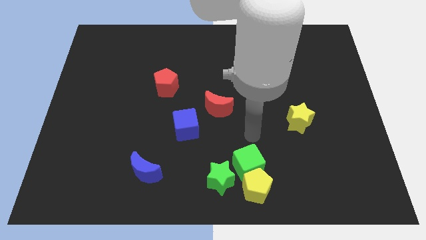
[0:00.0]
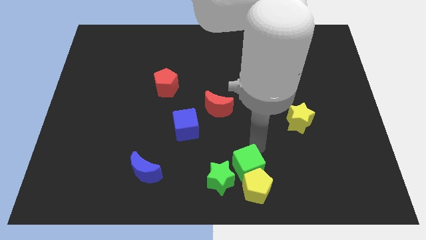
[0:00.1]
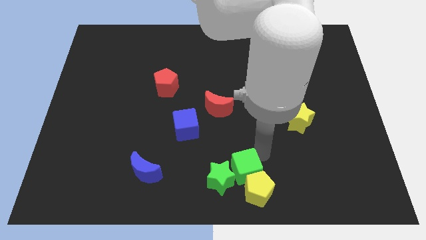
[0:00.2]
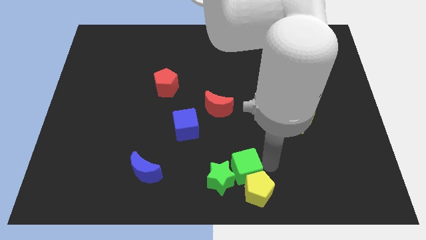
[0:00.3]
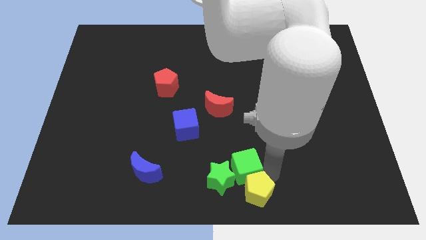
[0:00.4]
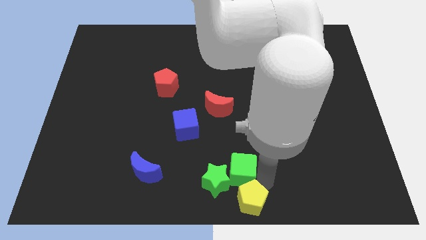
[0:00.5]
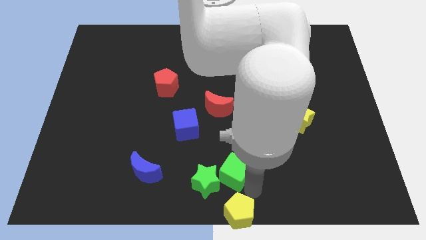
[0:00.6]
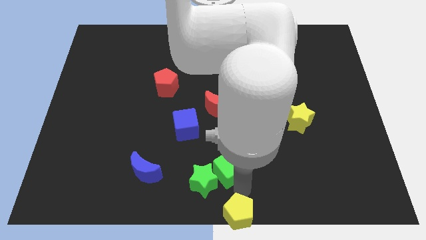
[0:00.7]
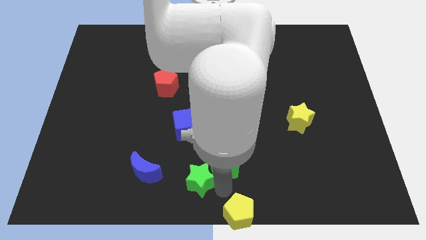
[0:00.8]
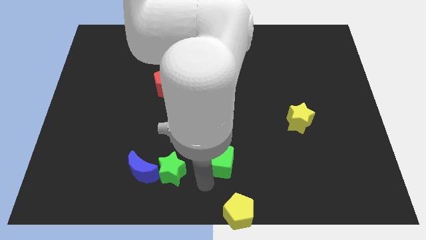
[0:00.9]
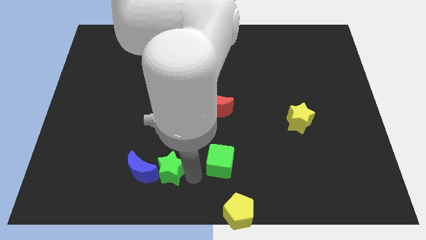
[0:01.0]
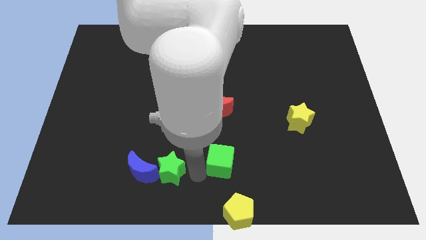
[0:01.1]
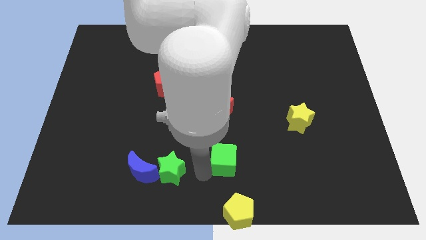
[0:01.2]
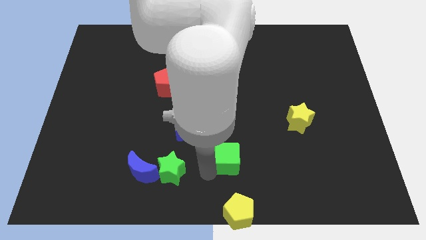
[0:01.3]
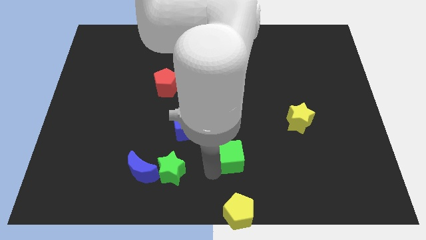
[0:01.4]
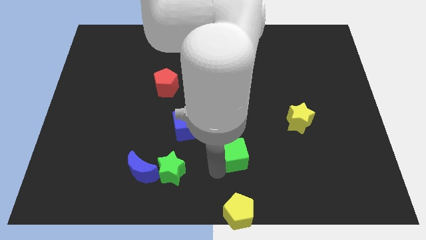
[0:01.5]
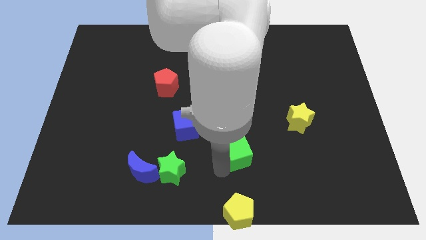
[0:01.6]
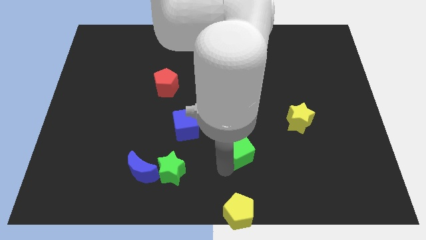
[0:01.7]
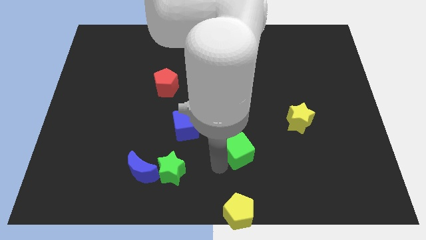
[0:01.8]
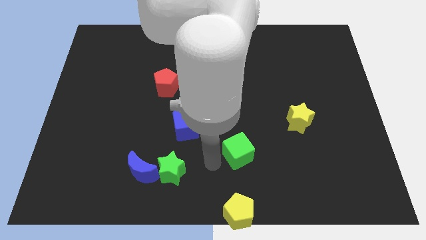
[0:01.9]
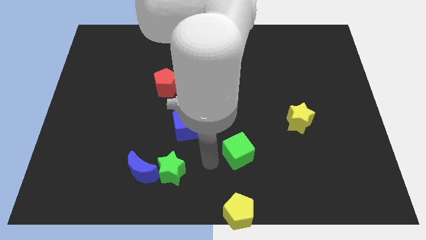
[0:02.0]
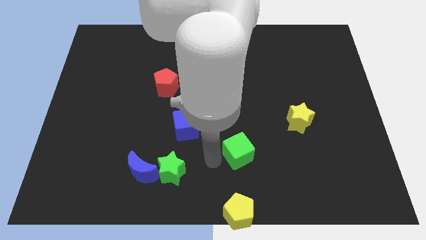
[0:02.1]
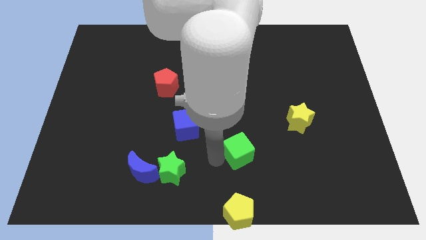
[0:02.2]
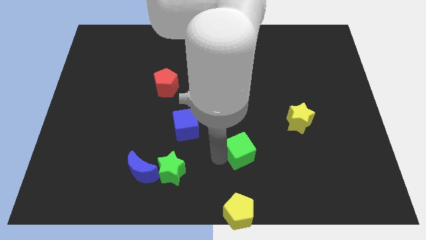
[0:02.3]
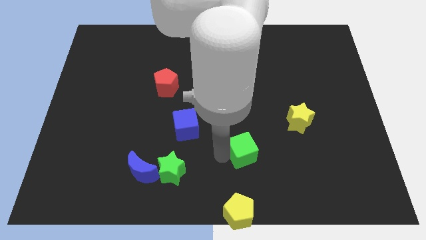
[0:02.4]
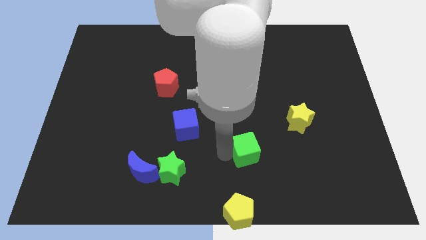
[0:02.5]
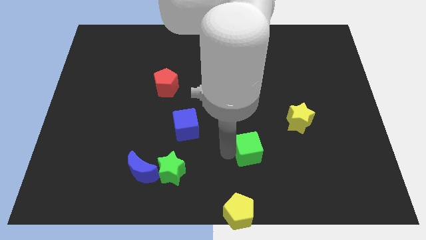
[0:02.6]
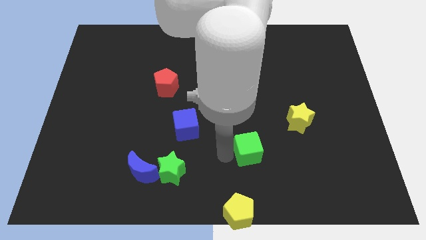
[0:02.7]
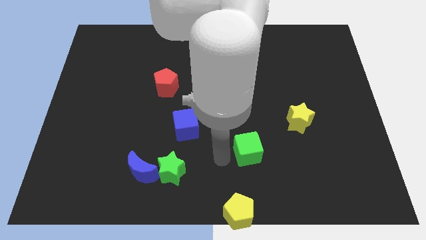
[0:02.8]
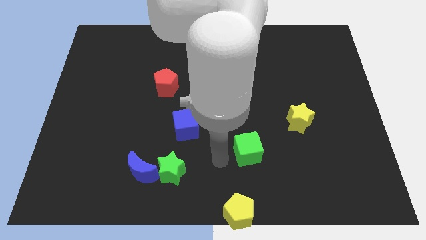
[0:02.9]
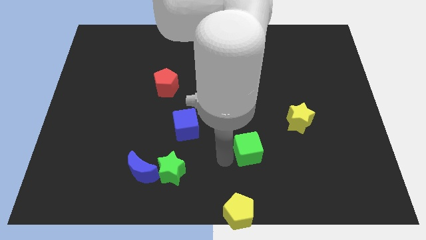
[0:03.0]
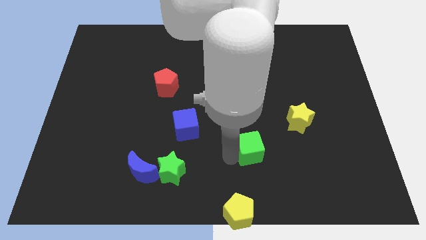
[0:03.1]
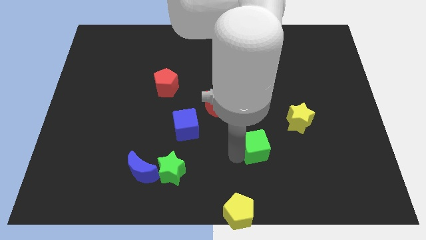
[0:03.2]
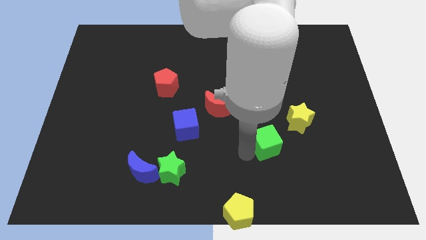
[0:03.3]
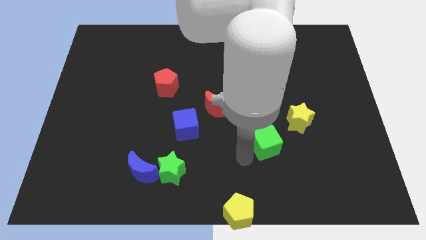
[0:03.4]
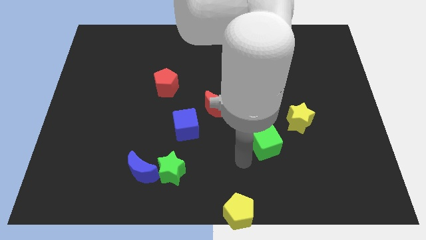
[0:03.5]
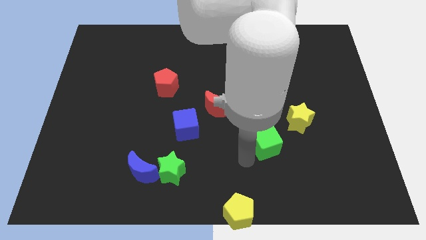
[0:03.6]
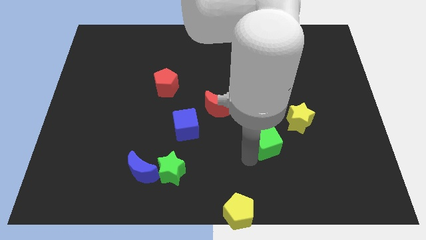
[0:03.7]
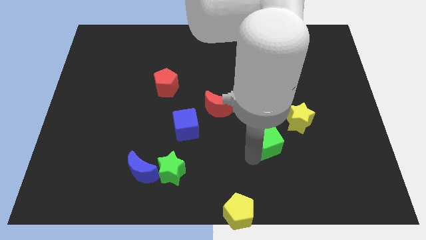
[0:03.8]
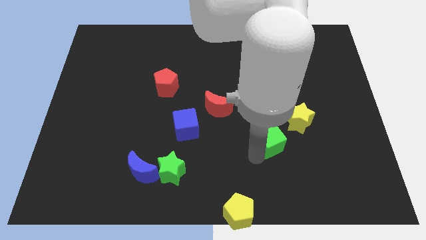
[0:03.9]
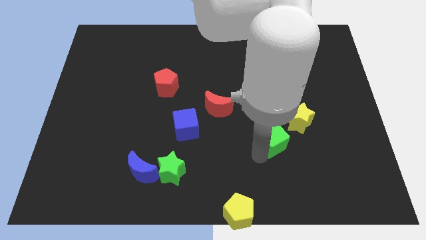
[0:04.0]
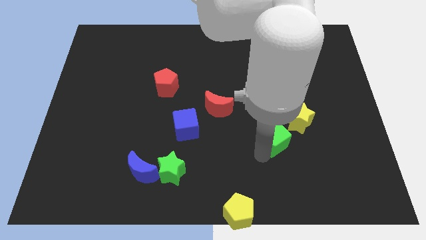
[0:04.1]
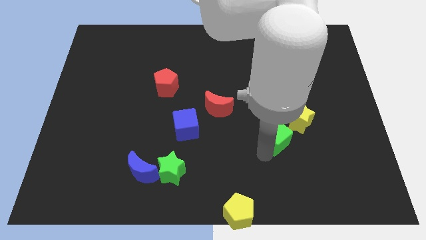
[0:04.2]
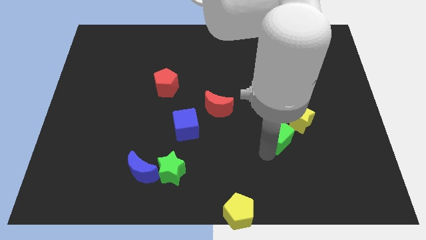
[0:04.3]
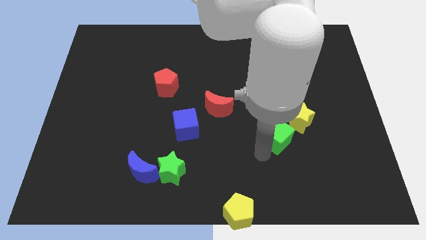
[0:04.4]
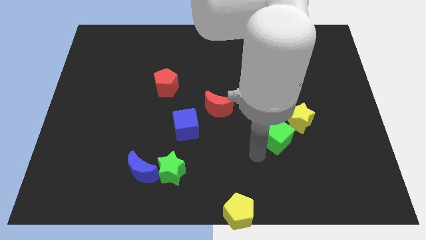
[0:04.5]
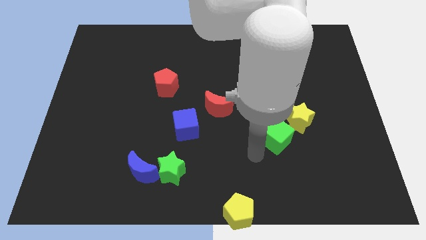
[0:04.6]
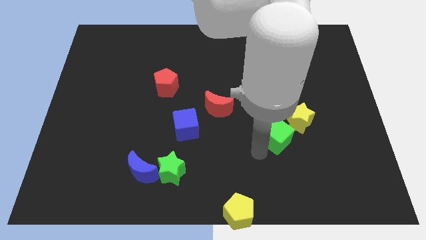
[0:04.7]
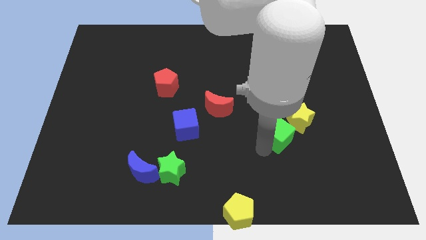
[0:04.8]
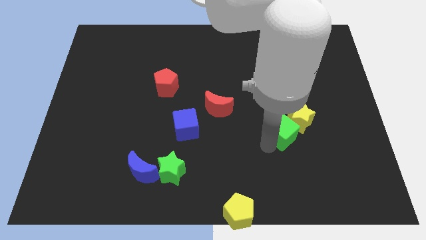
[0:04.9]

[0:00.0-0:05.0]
move the green cube next to the yellow star

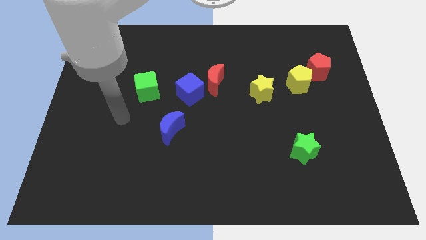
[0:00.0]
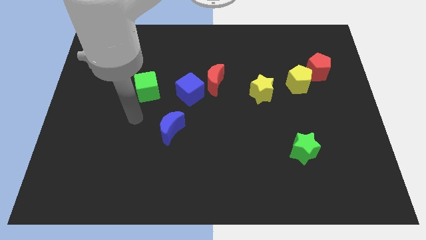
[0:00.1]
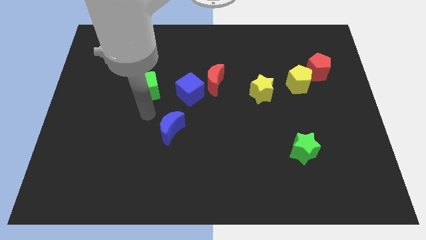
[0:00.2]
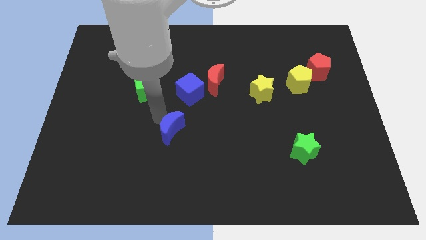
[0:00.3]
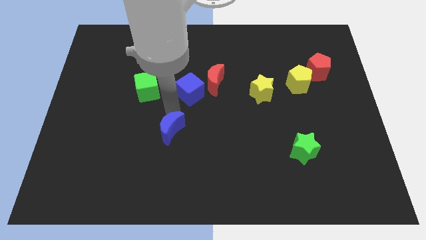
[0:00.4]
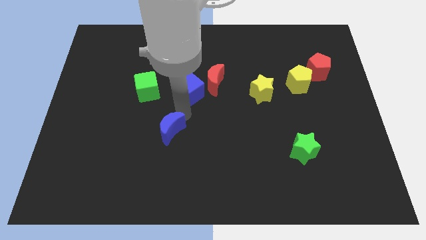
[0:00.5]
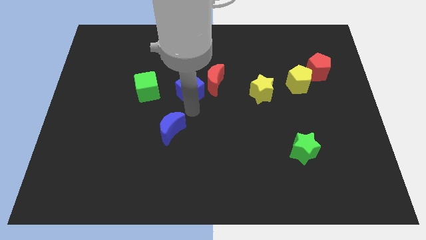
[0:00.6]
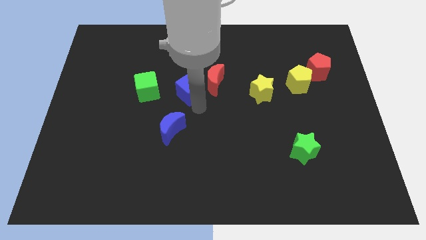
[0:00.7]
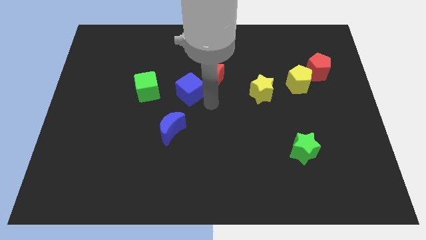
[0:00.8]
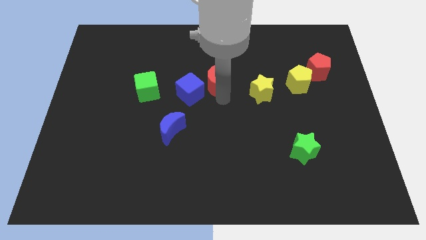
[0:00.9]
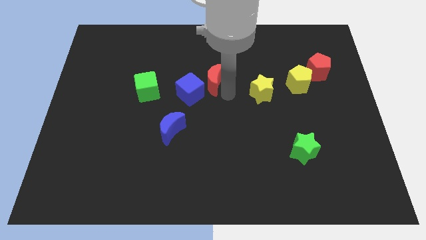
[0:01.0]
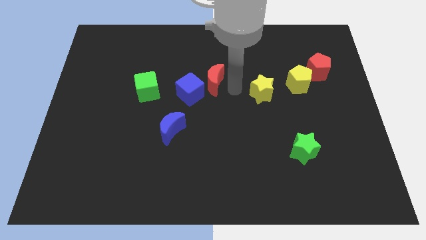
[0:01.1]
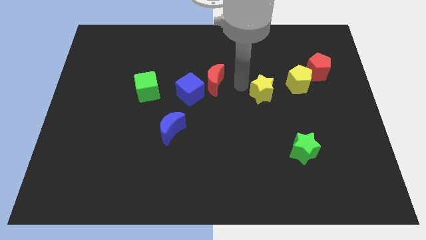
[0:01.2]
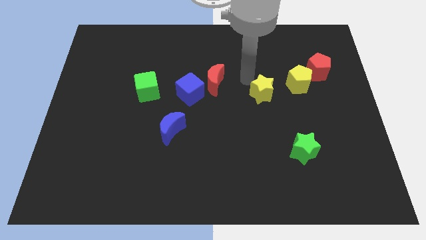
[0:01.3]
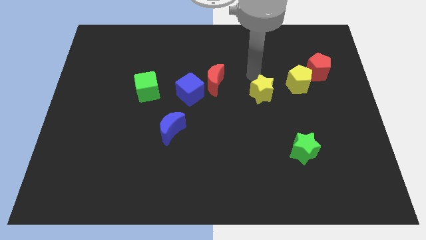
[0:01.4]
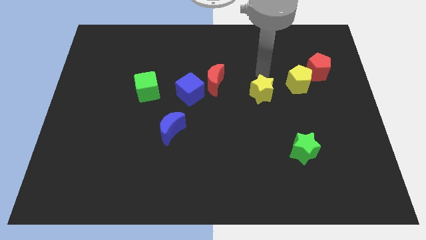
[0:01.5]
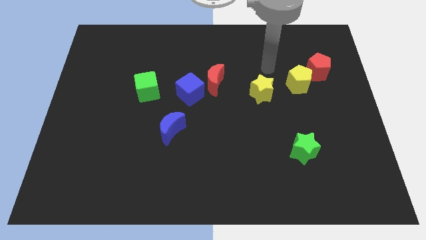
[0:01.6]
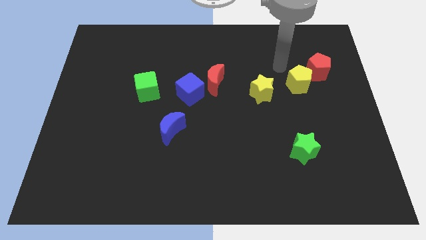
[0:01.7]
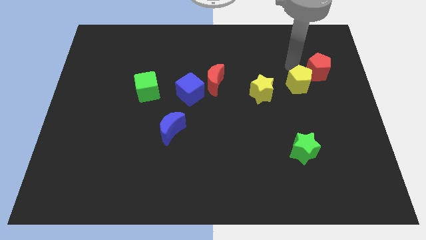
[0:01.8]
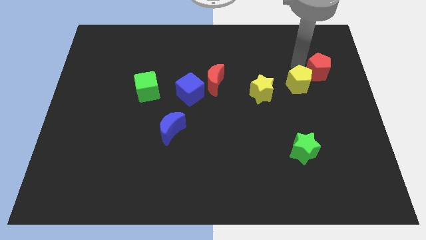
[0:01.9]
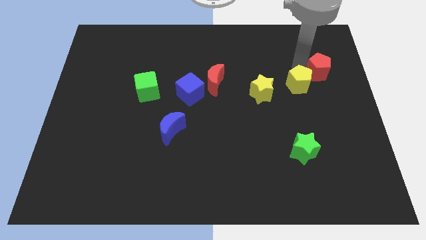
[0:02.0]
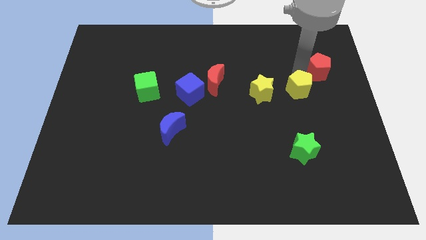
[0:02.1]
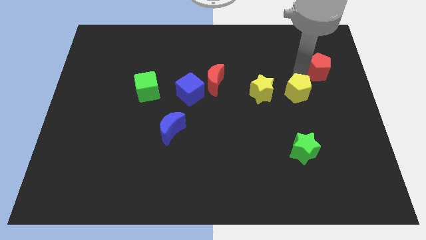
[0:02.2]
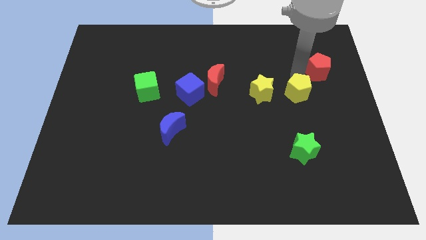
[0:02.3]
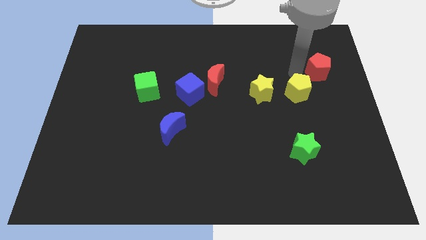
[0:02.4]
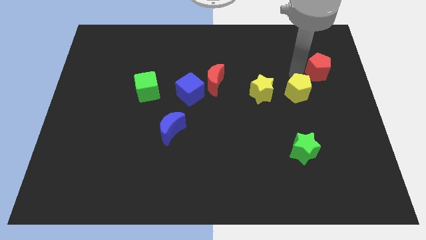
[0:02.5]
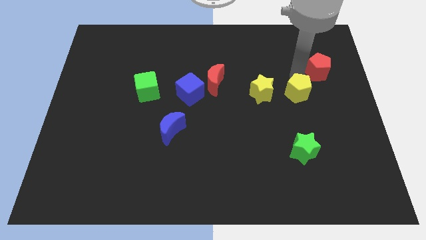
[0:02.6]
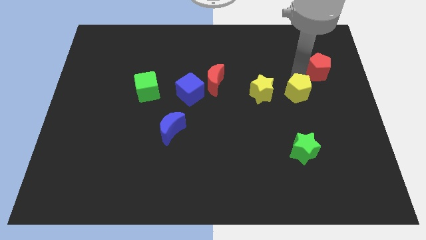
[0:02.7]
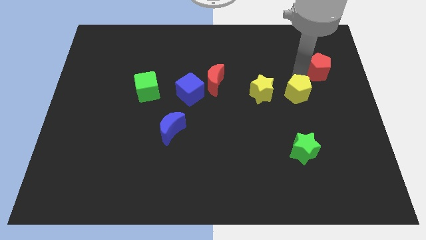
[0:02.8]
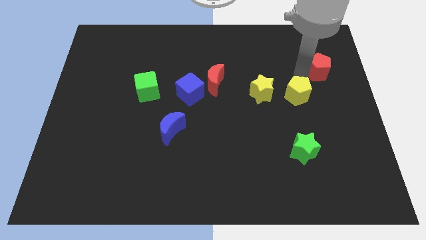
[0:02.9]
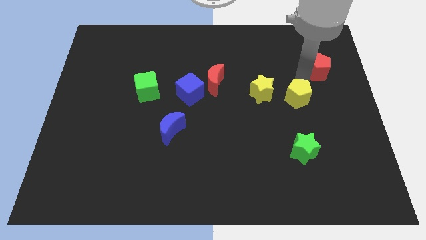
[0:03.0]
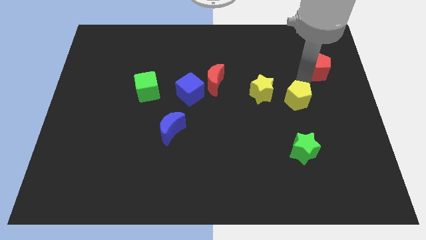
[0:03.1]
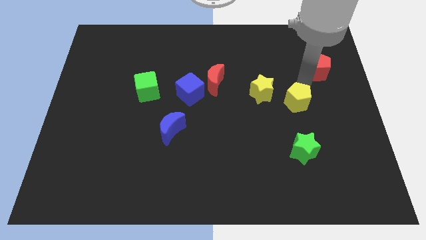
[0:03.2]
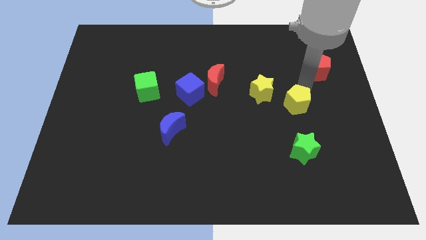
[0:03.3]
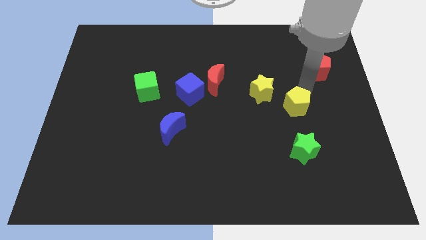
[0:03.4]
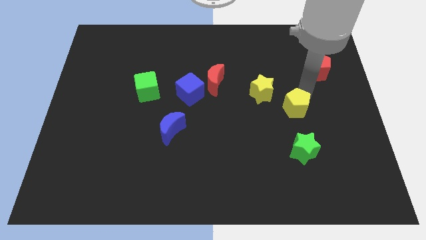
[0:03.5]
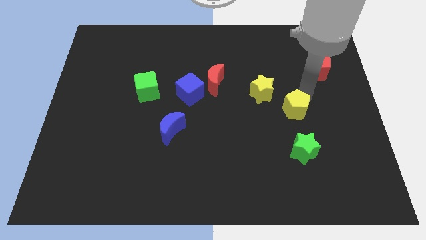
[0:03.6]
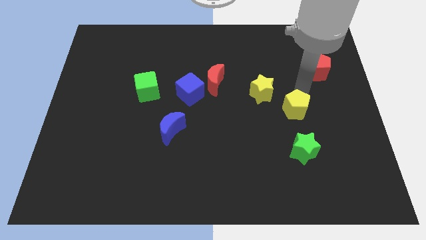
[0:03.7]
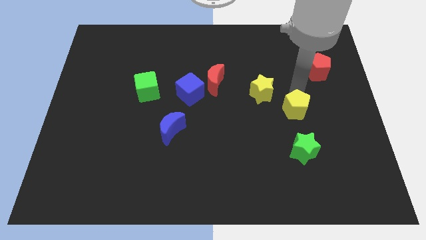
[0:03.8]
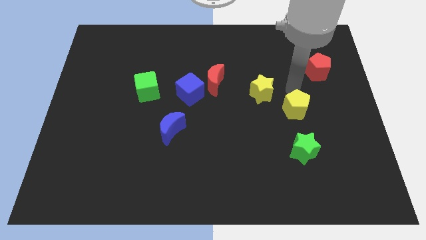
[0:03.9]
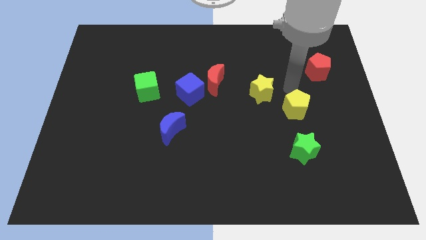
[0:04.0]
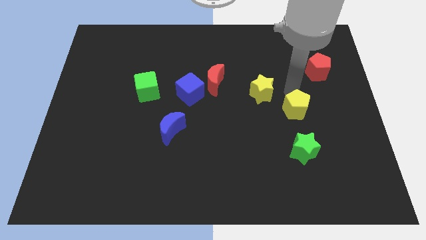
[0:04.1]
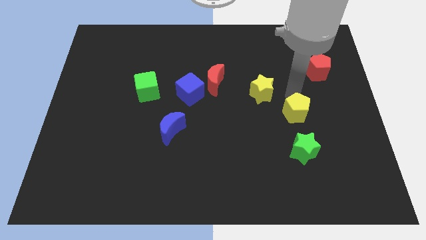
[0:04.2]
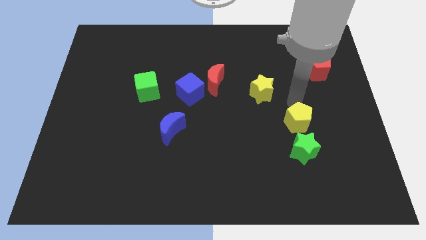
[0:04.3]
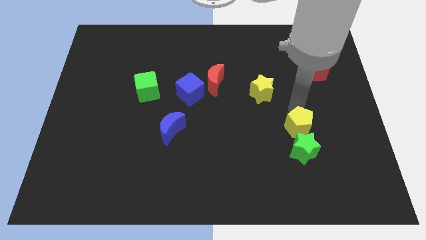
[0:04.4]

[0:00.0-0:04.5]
move the yellow pentagon to the green star
